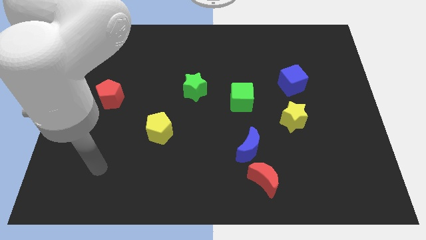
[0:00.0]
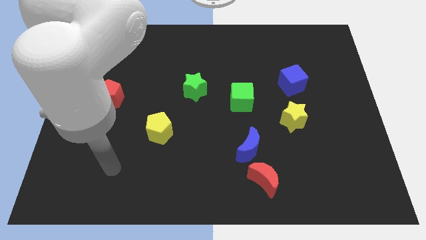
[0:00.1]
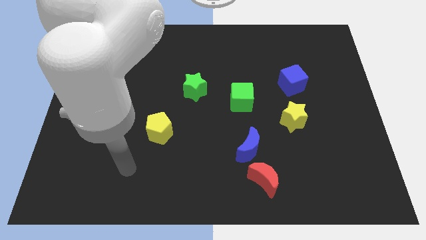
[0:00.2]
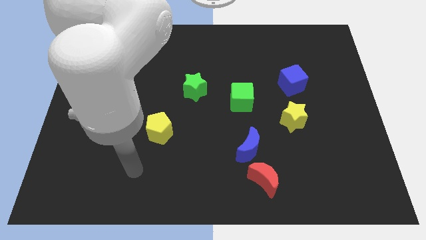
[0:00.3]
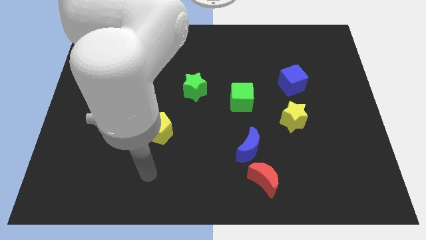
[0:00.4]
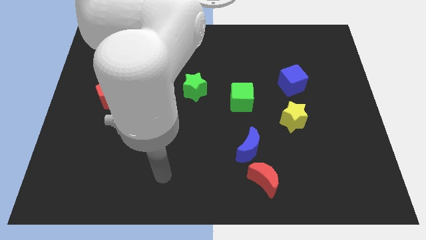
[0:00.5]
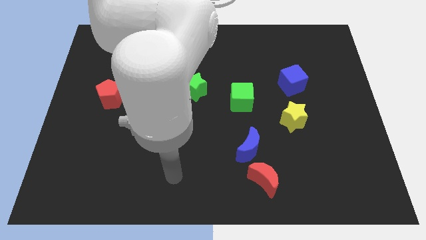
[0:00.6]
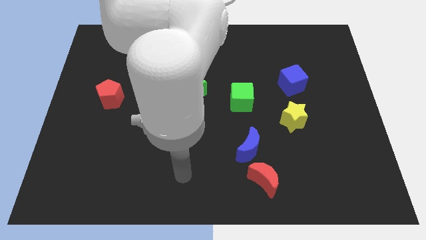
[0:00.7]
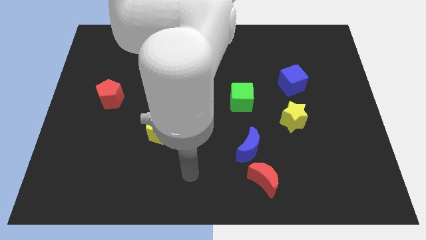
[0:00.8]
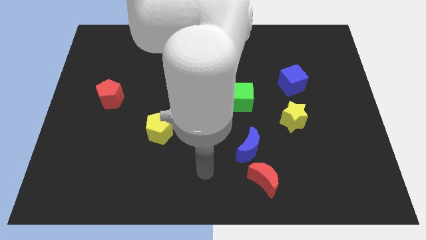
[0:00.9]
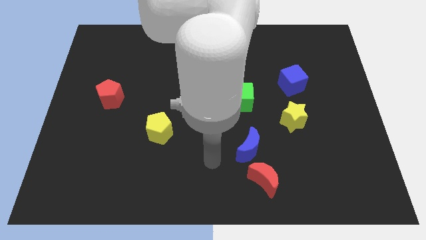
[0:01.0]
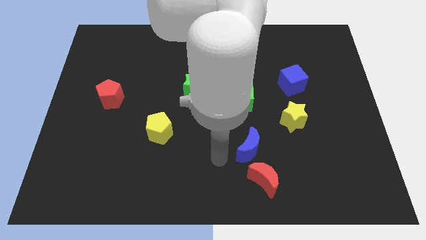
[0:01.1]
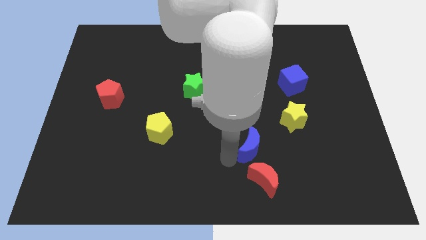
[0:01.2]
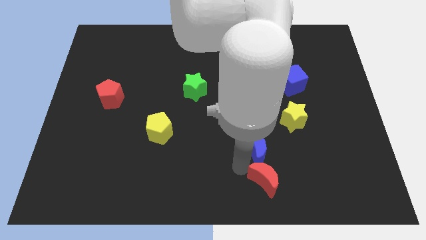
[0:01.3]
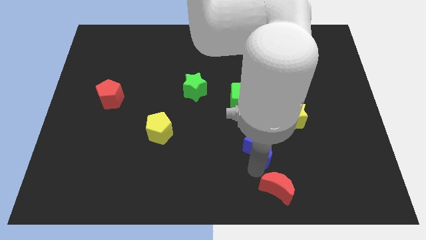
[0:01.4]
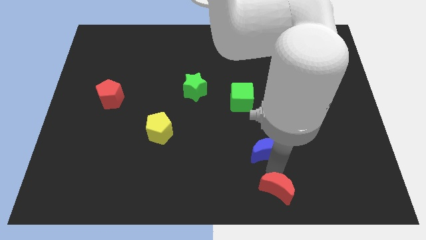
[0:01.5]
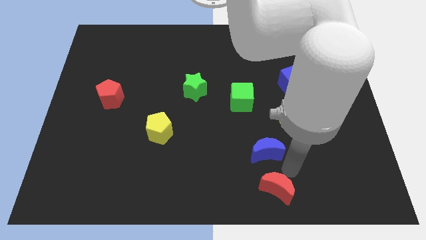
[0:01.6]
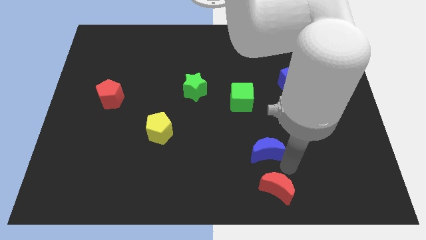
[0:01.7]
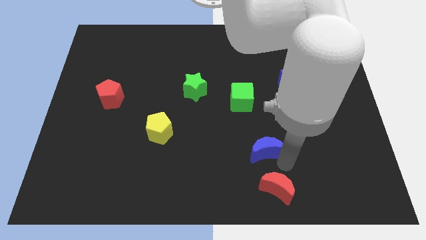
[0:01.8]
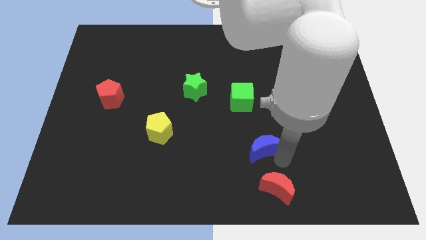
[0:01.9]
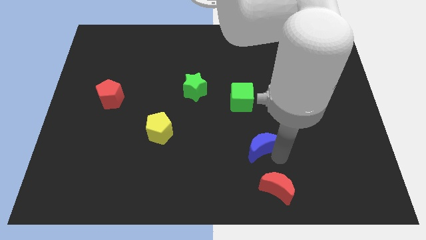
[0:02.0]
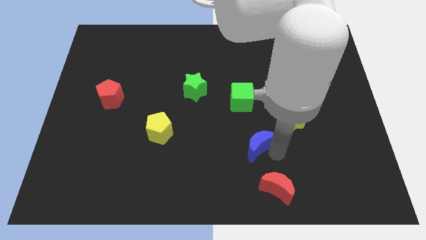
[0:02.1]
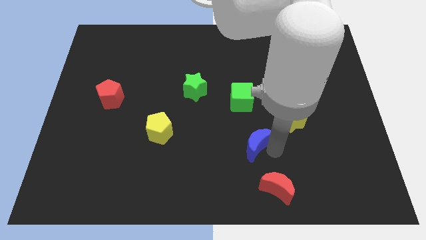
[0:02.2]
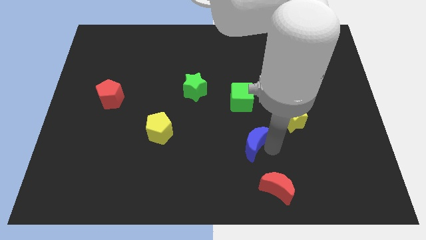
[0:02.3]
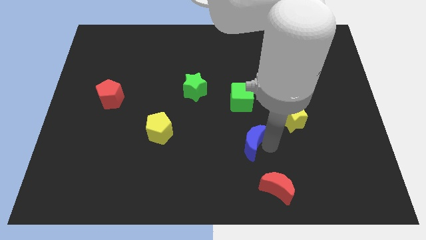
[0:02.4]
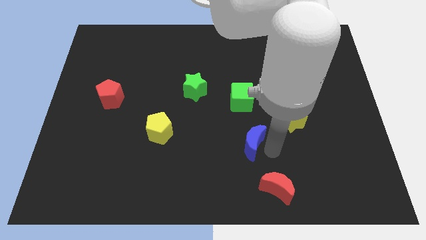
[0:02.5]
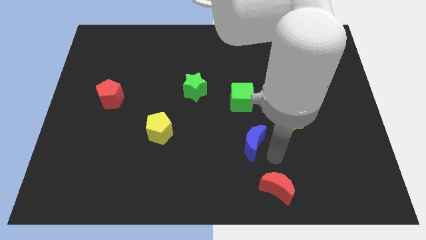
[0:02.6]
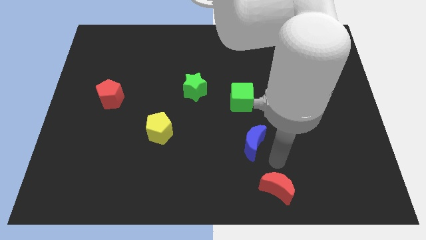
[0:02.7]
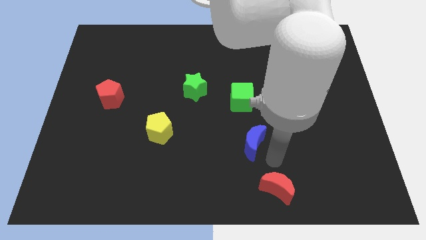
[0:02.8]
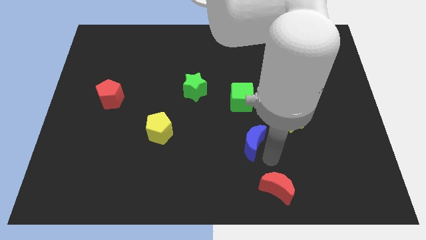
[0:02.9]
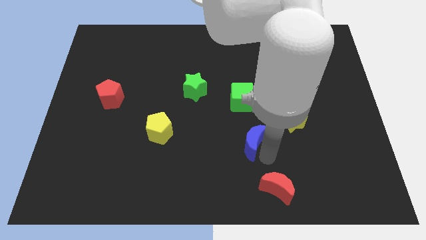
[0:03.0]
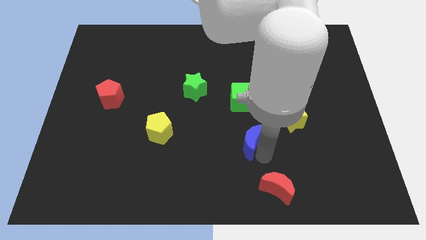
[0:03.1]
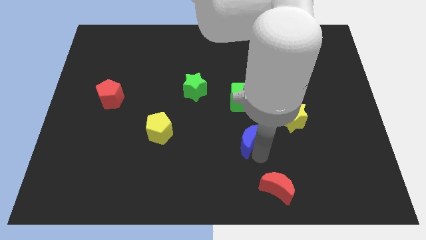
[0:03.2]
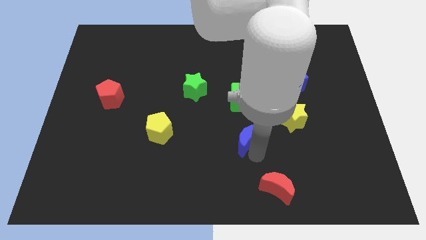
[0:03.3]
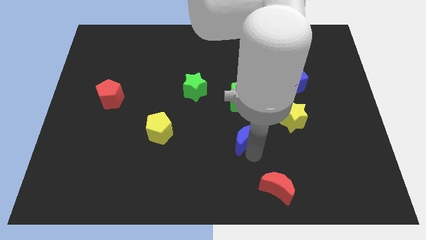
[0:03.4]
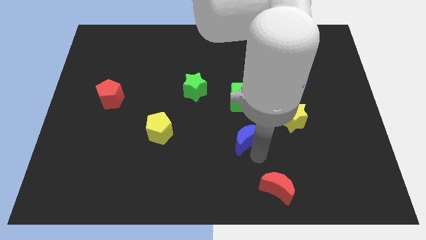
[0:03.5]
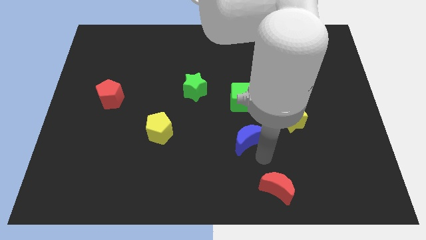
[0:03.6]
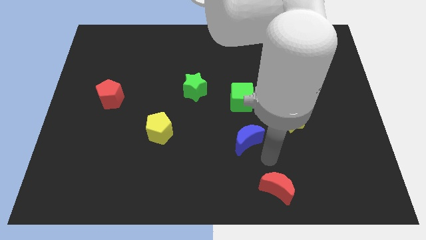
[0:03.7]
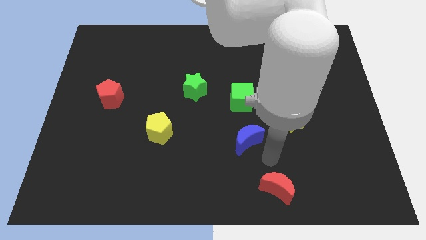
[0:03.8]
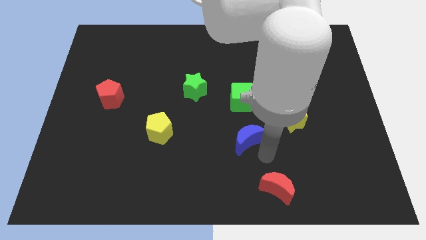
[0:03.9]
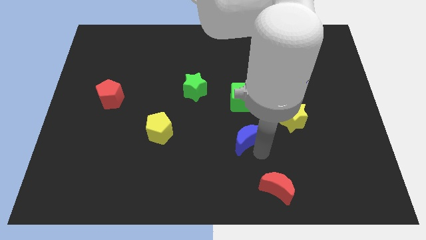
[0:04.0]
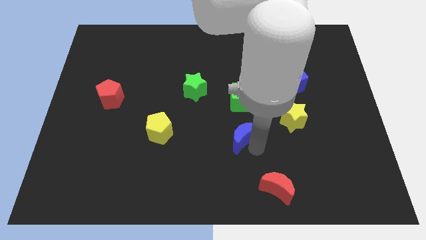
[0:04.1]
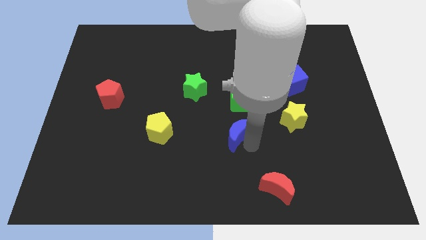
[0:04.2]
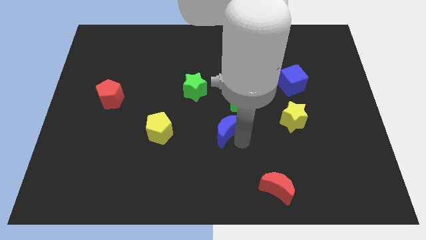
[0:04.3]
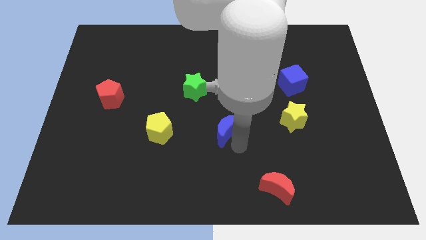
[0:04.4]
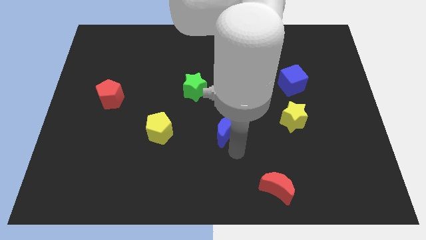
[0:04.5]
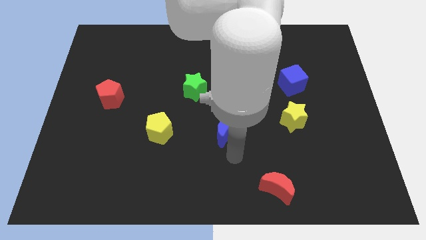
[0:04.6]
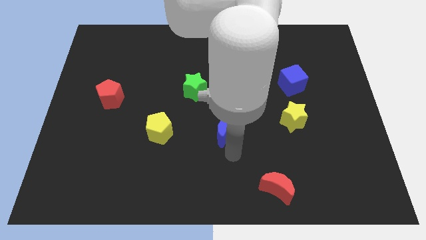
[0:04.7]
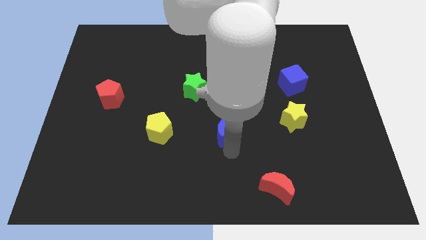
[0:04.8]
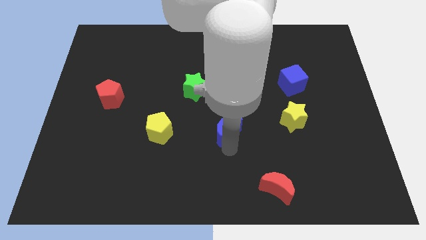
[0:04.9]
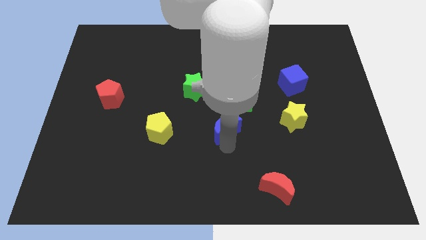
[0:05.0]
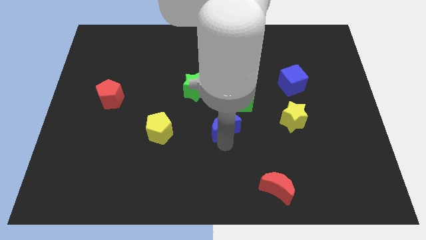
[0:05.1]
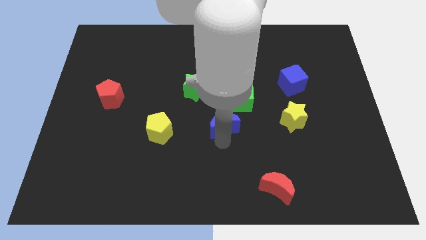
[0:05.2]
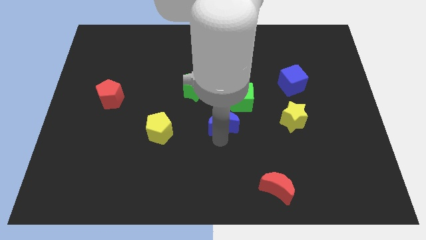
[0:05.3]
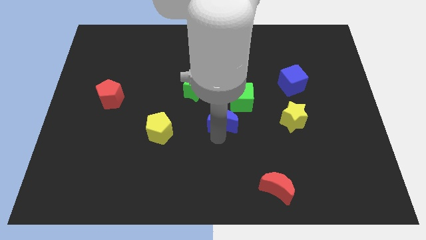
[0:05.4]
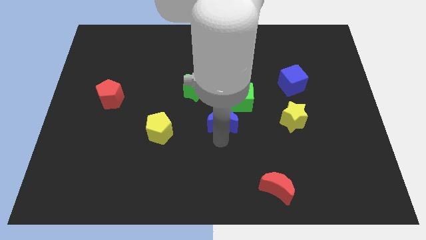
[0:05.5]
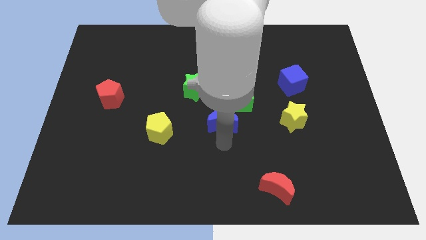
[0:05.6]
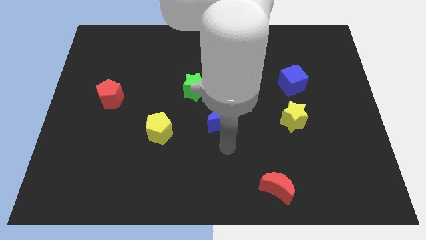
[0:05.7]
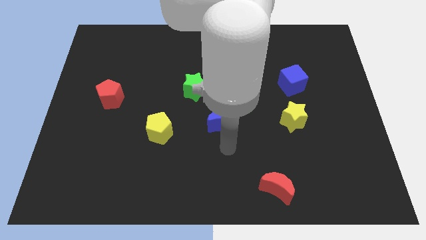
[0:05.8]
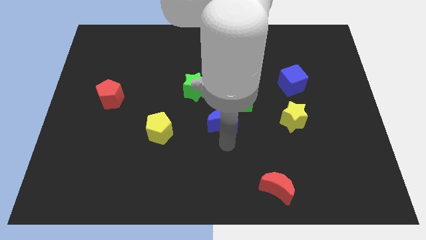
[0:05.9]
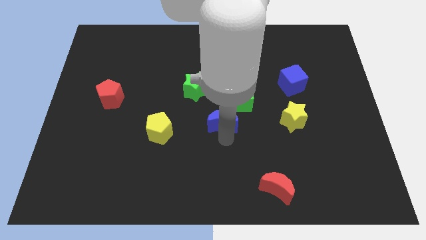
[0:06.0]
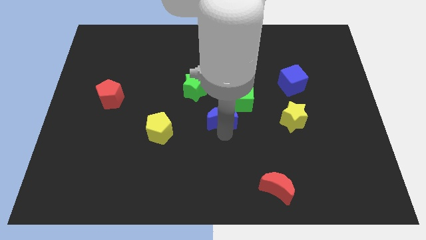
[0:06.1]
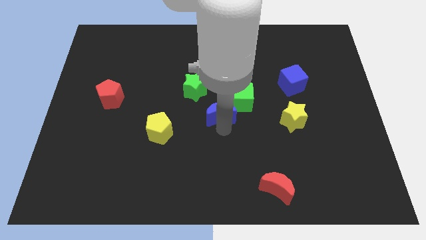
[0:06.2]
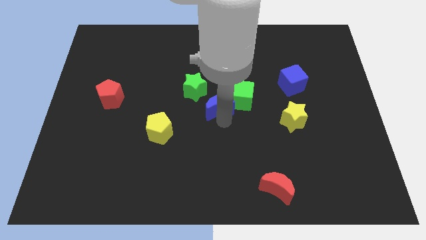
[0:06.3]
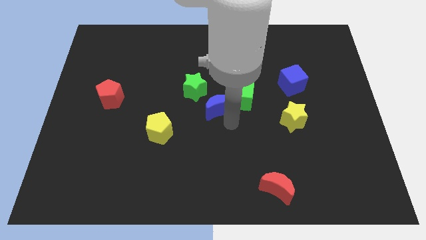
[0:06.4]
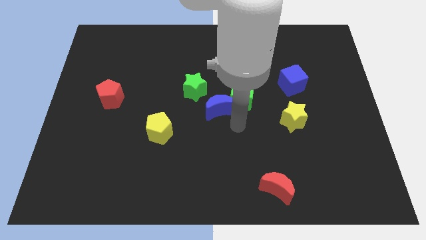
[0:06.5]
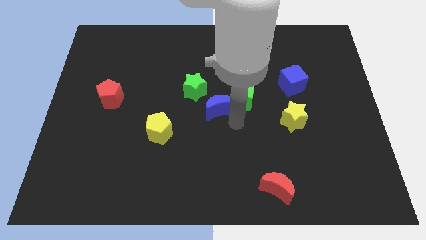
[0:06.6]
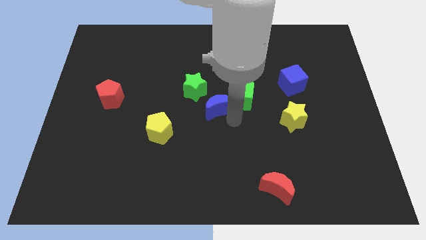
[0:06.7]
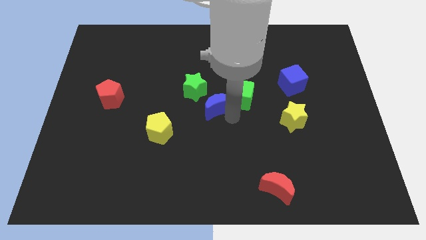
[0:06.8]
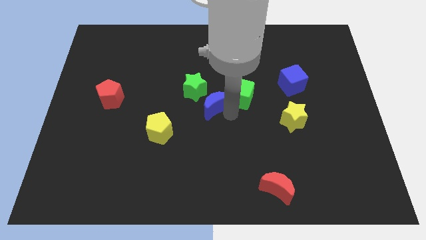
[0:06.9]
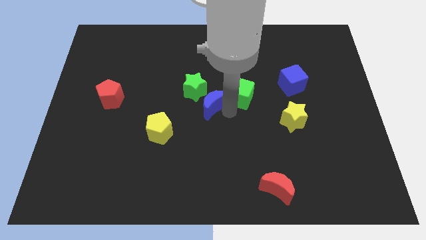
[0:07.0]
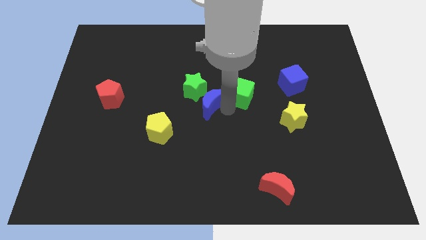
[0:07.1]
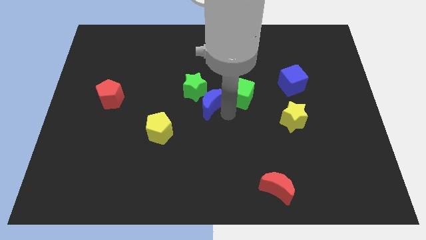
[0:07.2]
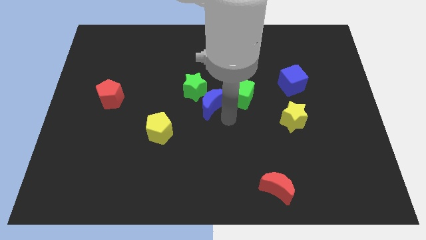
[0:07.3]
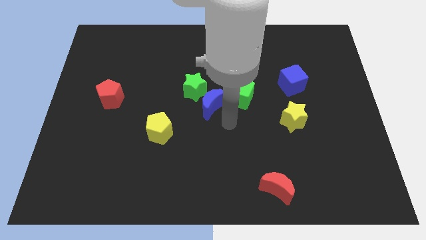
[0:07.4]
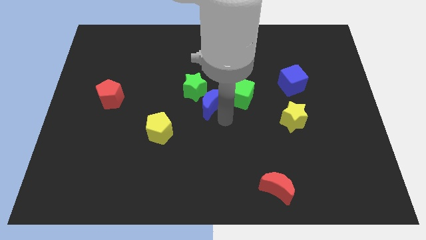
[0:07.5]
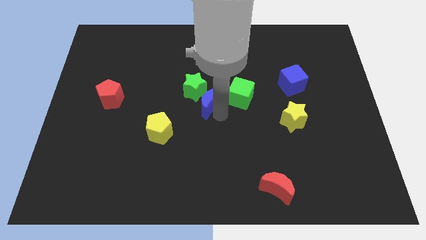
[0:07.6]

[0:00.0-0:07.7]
slide the blue moon close to the green star
